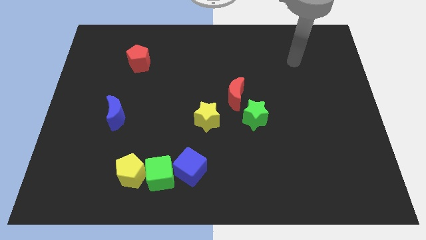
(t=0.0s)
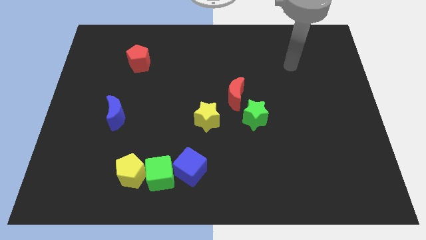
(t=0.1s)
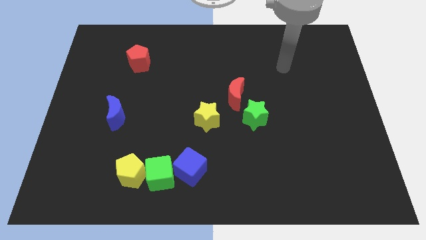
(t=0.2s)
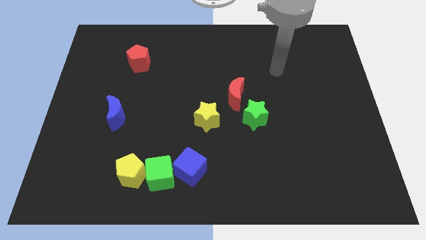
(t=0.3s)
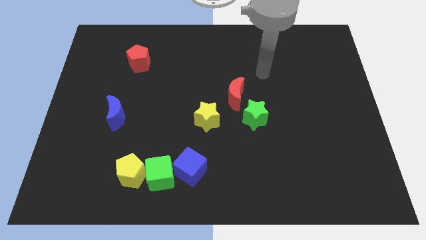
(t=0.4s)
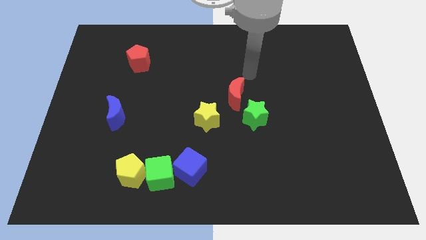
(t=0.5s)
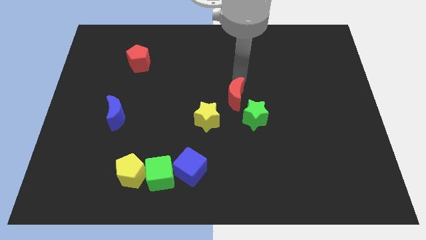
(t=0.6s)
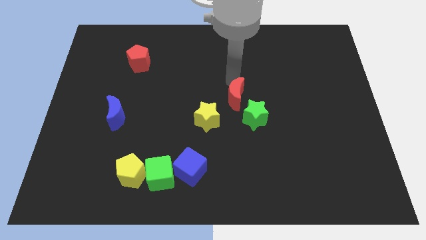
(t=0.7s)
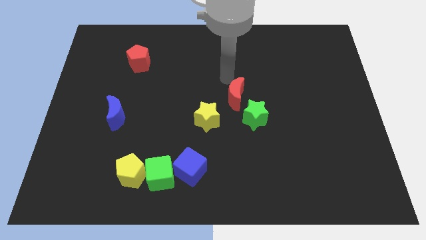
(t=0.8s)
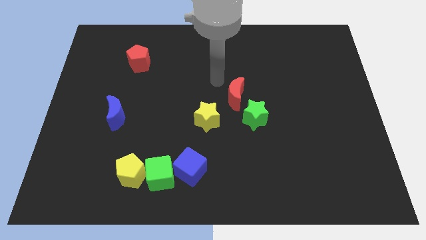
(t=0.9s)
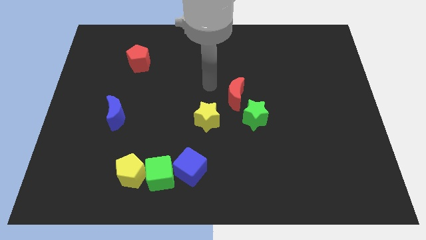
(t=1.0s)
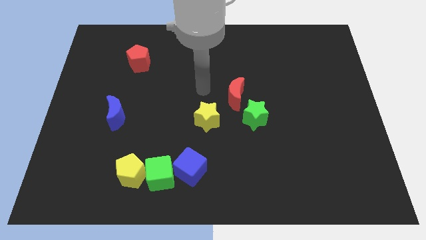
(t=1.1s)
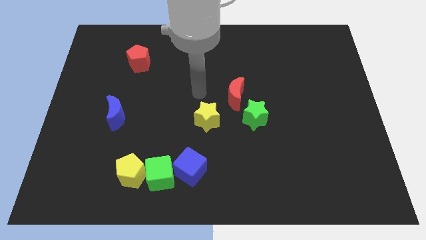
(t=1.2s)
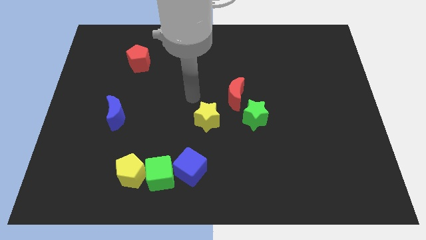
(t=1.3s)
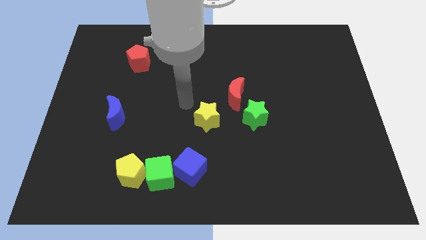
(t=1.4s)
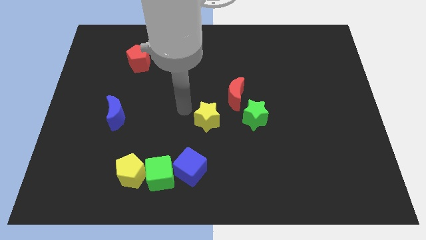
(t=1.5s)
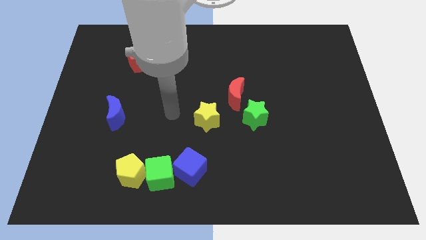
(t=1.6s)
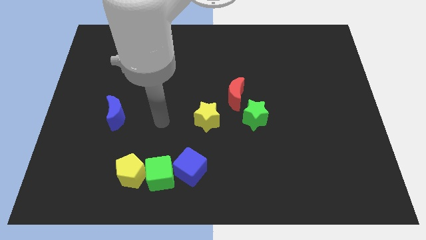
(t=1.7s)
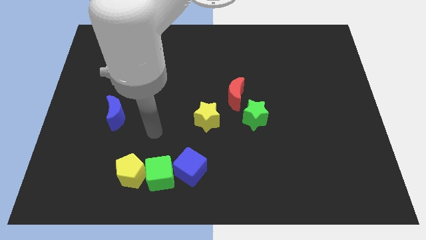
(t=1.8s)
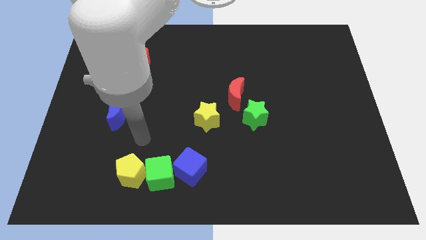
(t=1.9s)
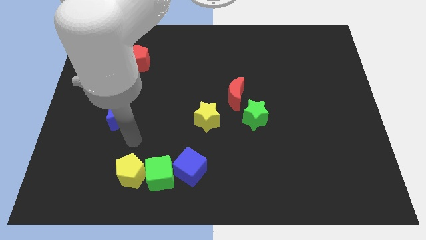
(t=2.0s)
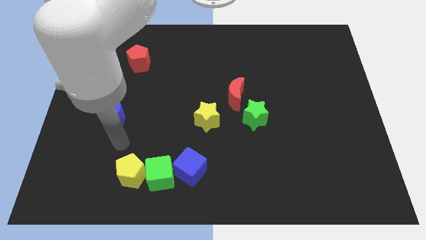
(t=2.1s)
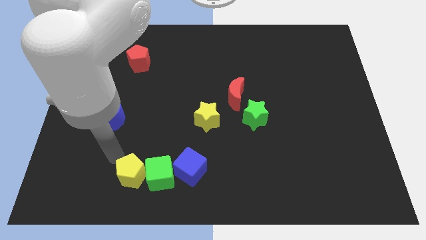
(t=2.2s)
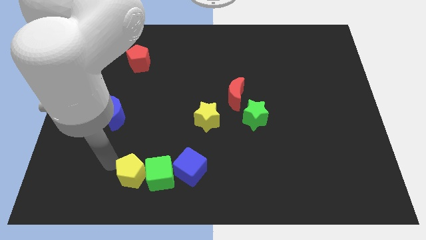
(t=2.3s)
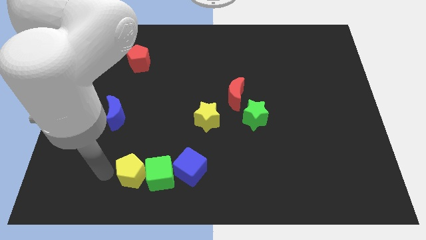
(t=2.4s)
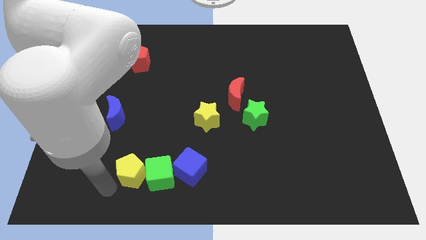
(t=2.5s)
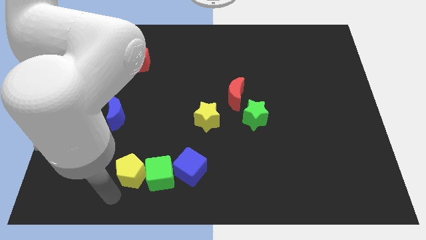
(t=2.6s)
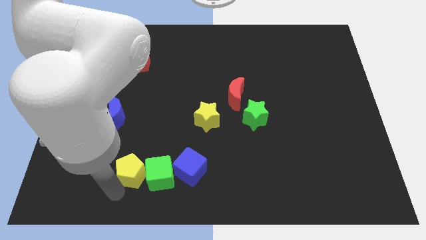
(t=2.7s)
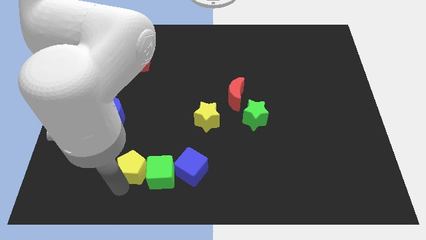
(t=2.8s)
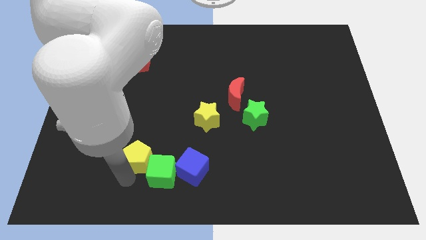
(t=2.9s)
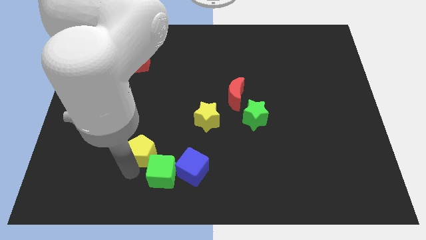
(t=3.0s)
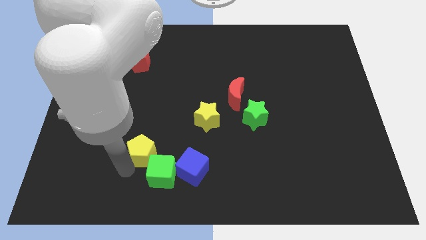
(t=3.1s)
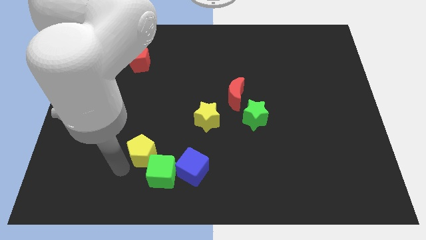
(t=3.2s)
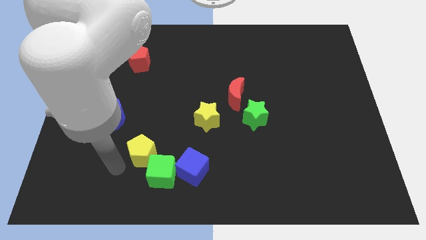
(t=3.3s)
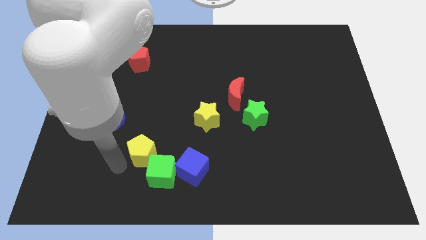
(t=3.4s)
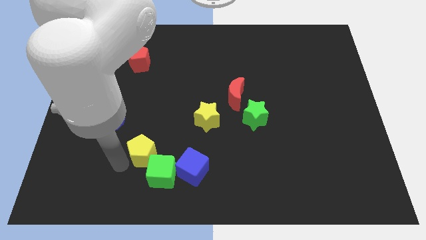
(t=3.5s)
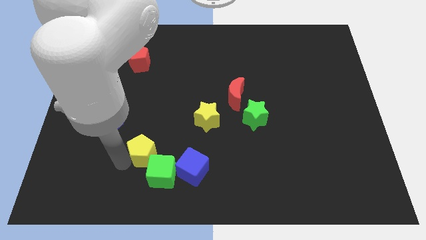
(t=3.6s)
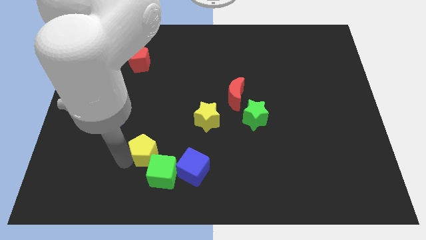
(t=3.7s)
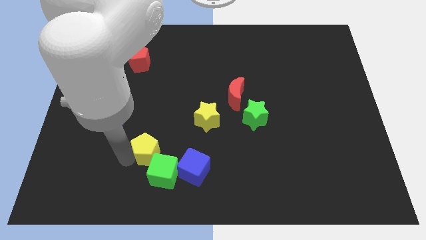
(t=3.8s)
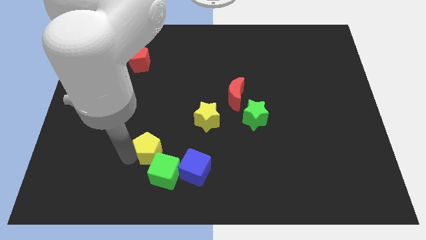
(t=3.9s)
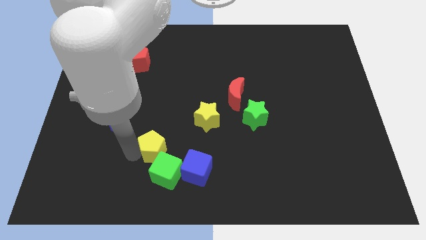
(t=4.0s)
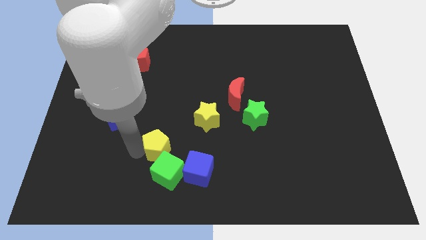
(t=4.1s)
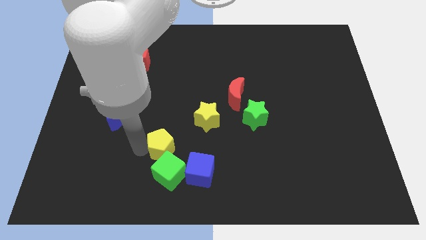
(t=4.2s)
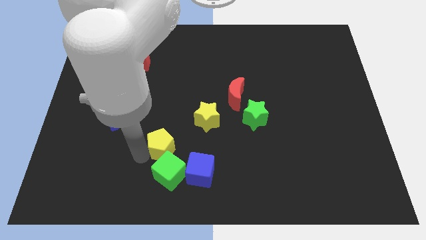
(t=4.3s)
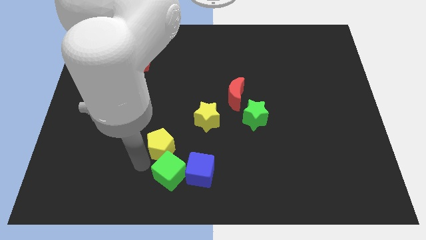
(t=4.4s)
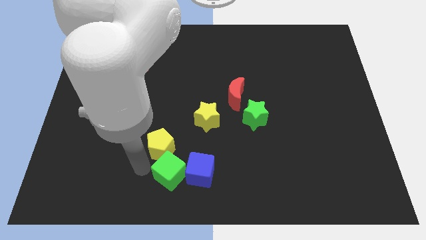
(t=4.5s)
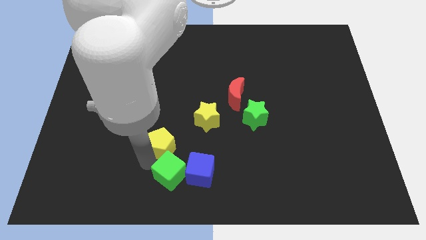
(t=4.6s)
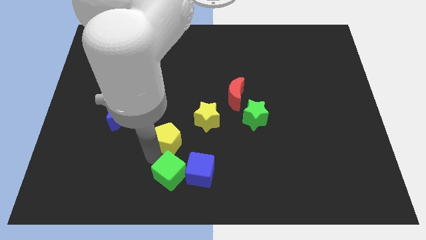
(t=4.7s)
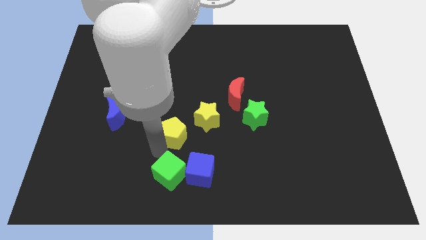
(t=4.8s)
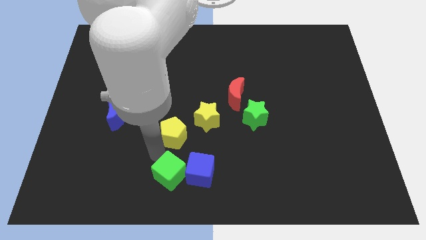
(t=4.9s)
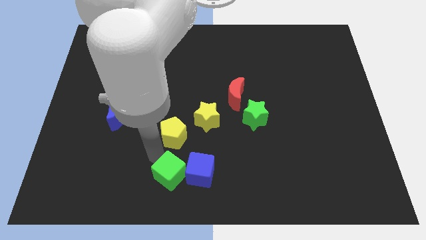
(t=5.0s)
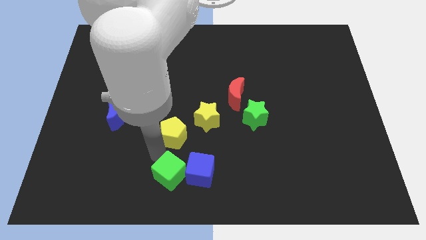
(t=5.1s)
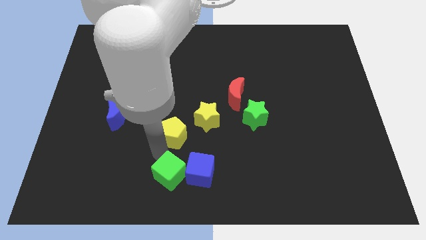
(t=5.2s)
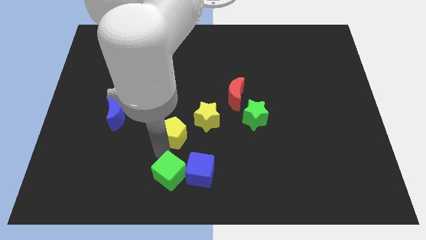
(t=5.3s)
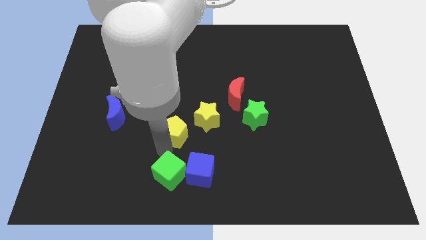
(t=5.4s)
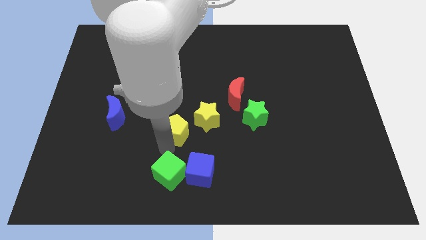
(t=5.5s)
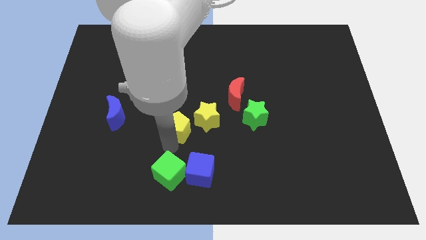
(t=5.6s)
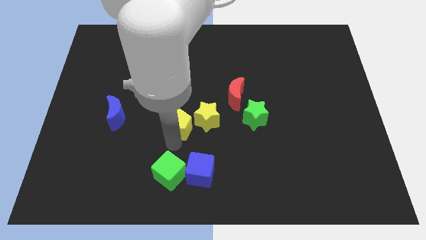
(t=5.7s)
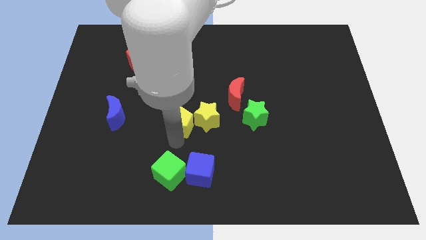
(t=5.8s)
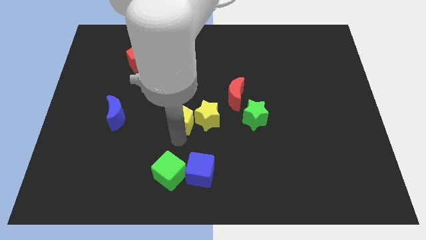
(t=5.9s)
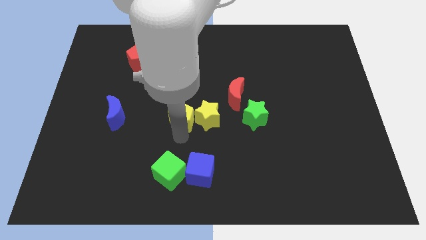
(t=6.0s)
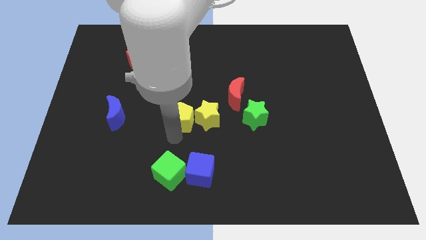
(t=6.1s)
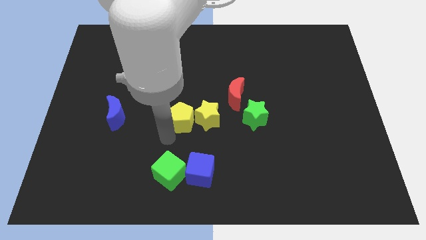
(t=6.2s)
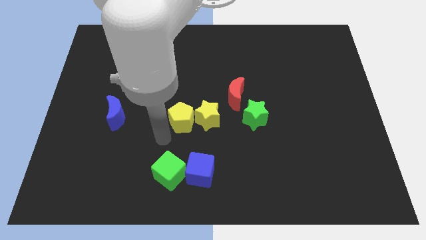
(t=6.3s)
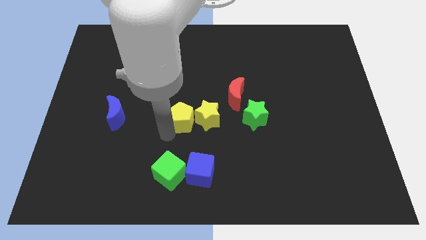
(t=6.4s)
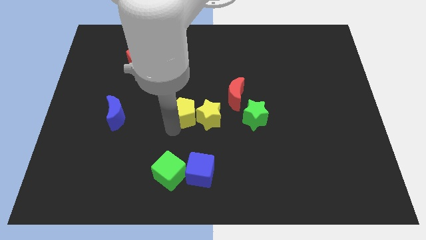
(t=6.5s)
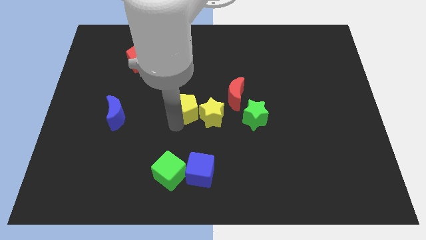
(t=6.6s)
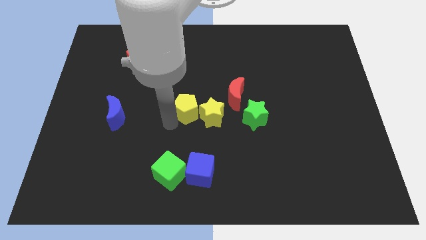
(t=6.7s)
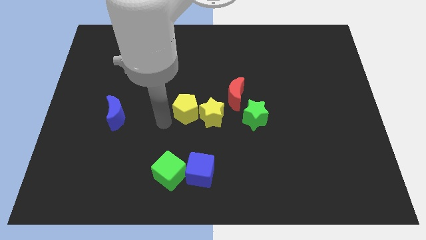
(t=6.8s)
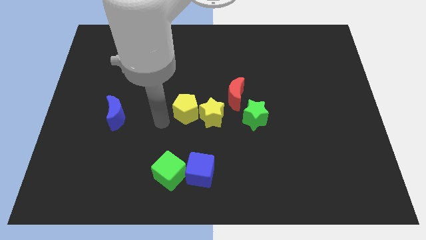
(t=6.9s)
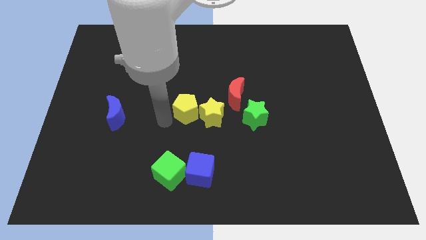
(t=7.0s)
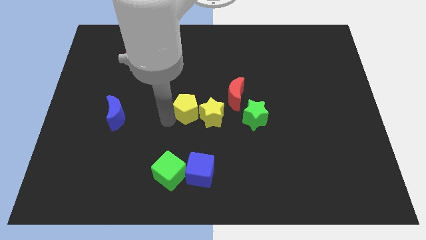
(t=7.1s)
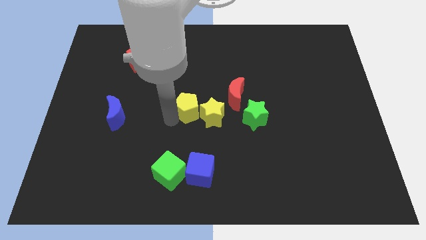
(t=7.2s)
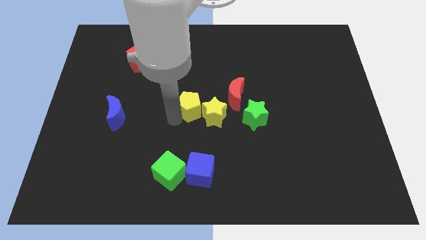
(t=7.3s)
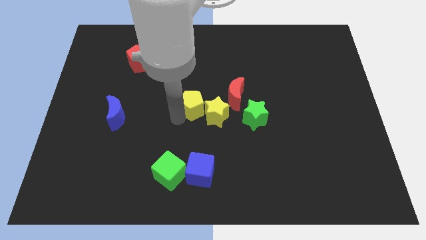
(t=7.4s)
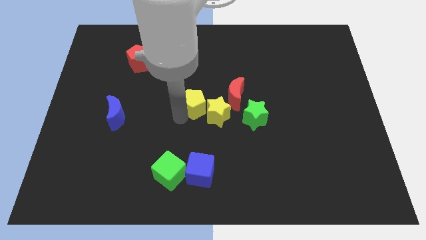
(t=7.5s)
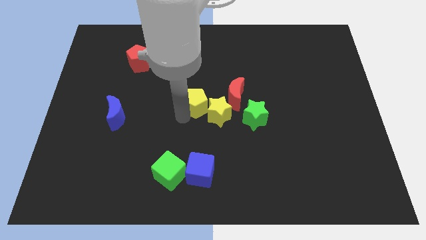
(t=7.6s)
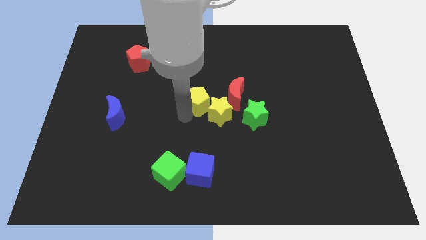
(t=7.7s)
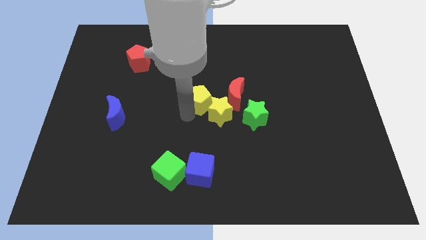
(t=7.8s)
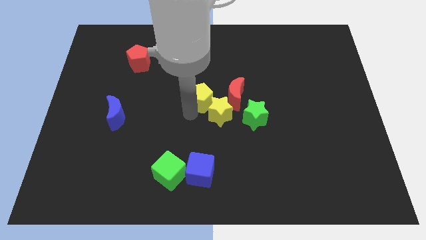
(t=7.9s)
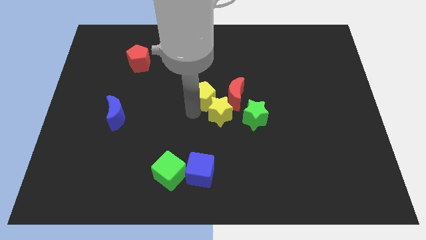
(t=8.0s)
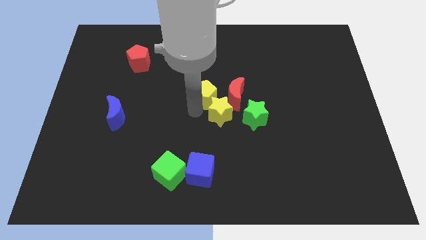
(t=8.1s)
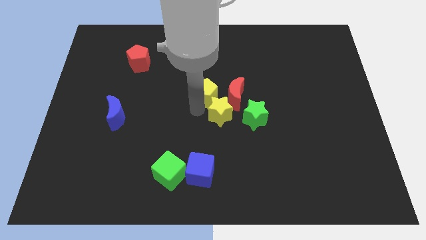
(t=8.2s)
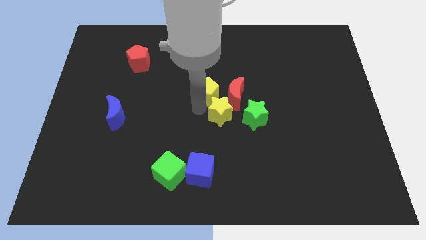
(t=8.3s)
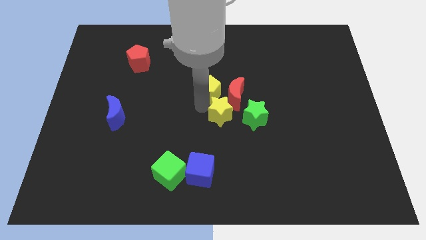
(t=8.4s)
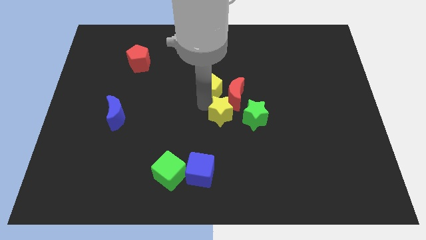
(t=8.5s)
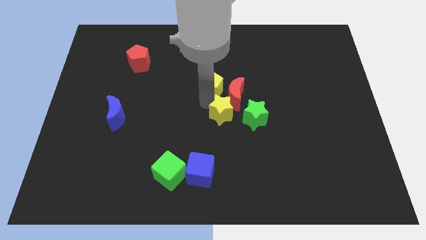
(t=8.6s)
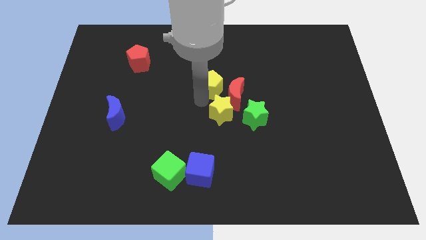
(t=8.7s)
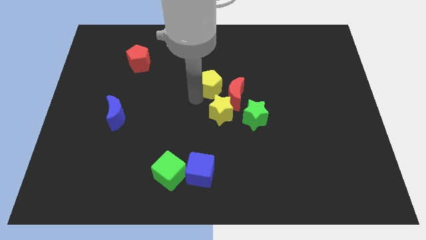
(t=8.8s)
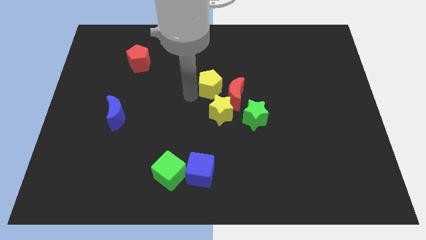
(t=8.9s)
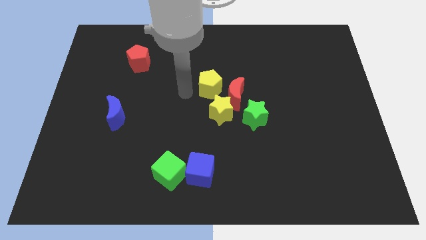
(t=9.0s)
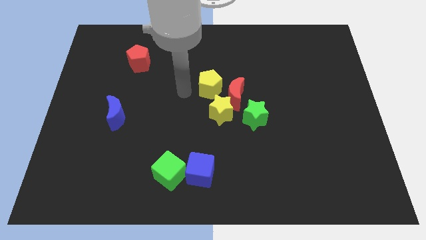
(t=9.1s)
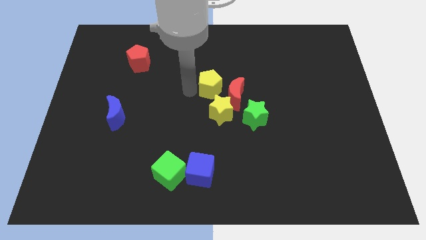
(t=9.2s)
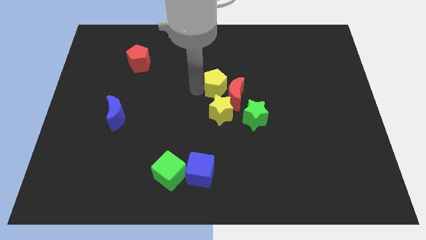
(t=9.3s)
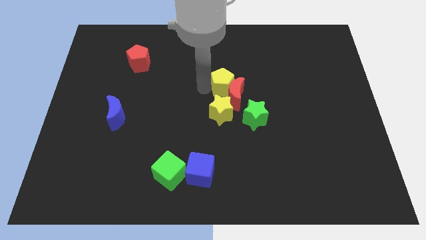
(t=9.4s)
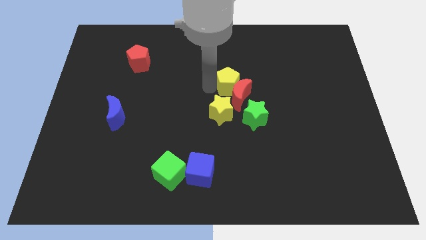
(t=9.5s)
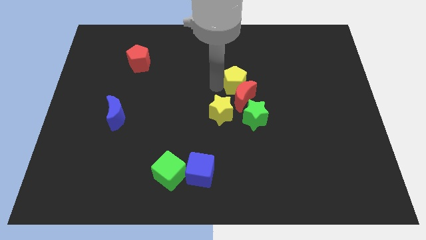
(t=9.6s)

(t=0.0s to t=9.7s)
put the yellow pentagon above the green star
